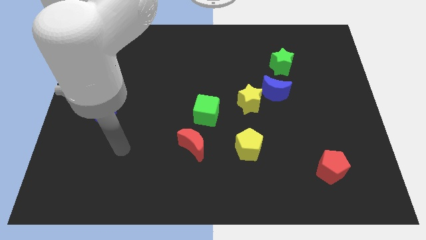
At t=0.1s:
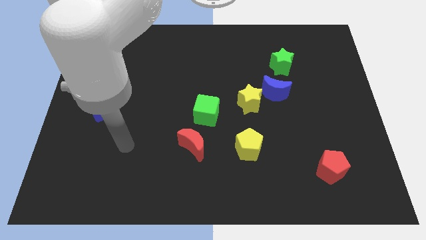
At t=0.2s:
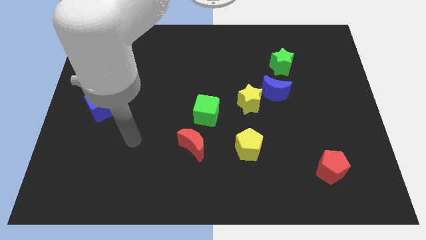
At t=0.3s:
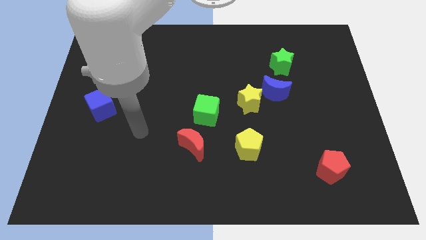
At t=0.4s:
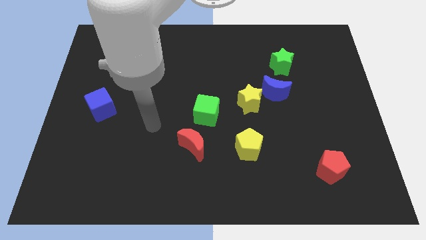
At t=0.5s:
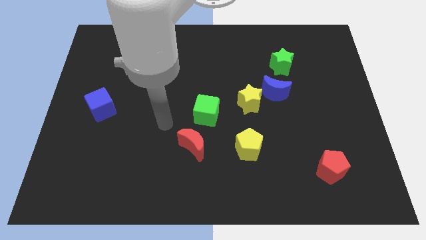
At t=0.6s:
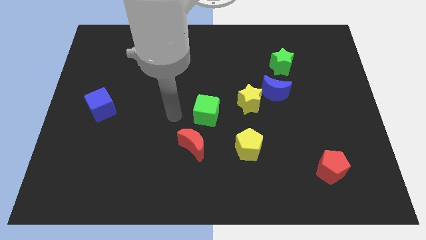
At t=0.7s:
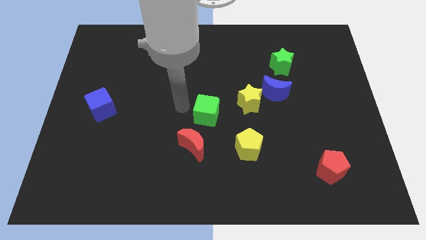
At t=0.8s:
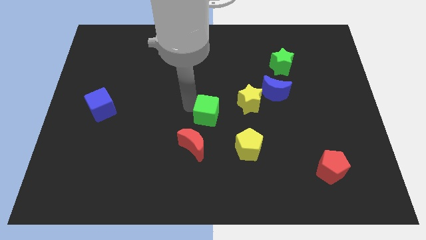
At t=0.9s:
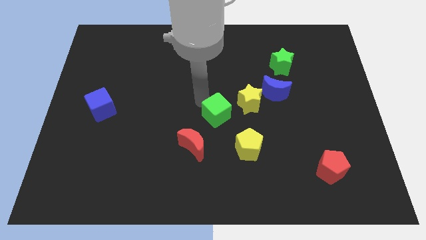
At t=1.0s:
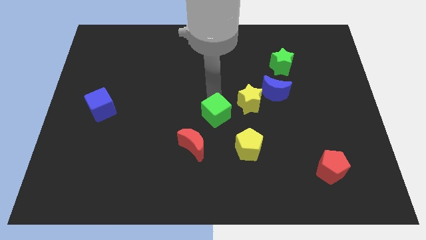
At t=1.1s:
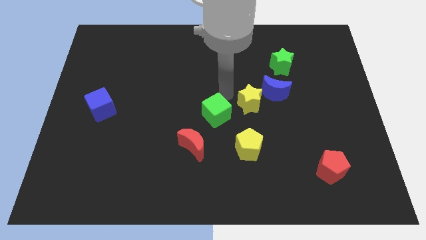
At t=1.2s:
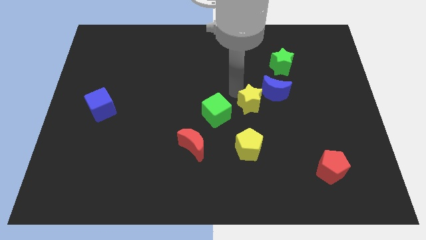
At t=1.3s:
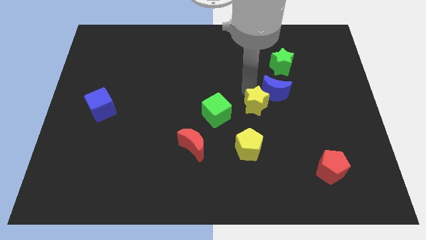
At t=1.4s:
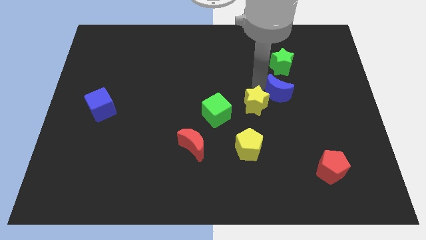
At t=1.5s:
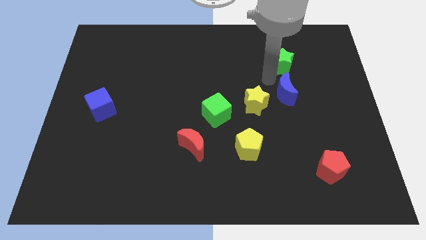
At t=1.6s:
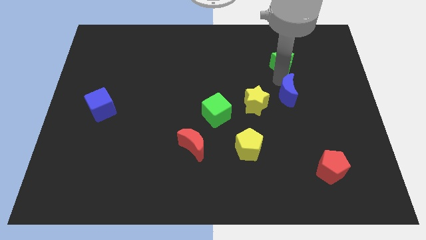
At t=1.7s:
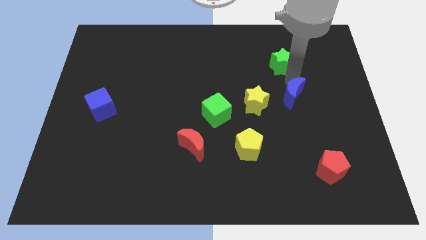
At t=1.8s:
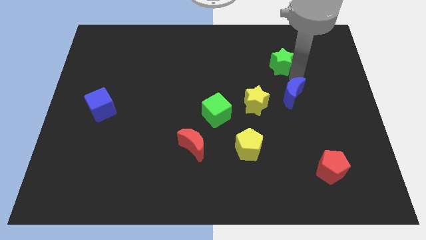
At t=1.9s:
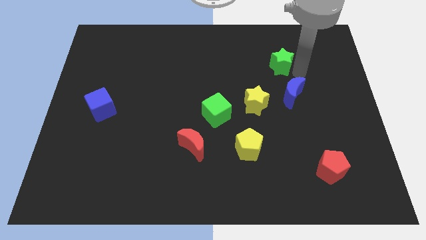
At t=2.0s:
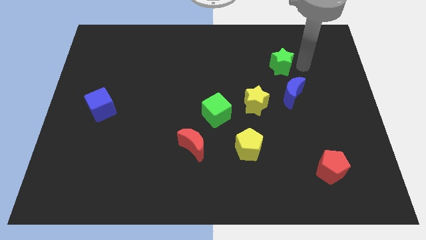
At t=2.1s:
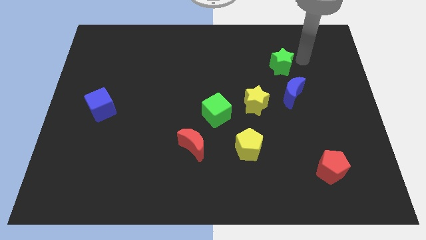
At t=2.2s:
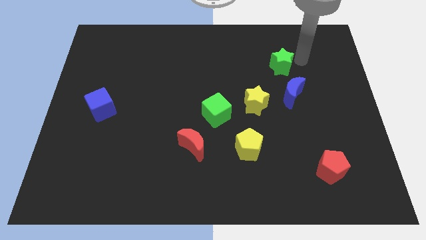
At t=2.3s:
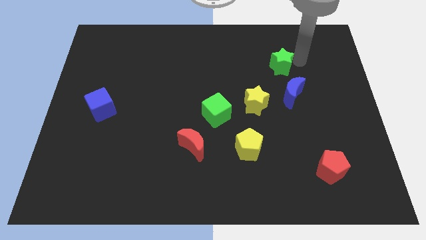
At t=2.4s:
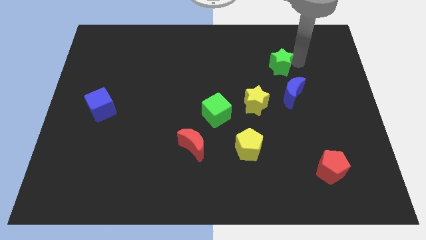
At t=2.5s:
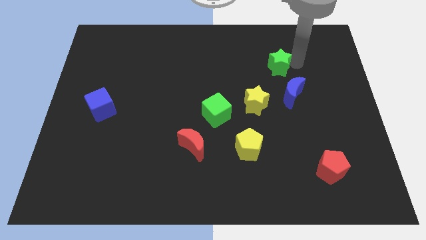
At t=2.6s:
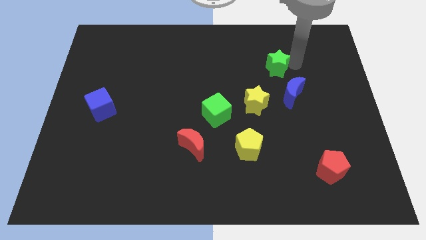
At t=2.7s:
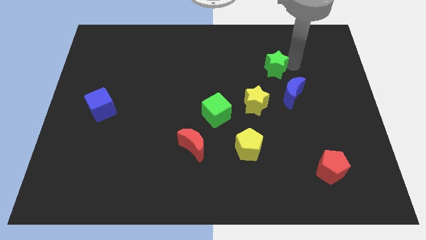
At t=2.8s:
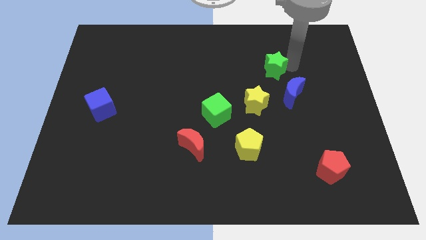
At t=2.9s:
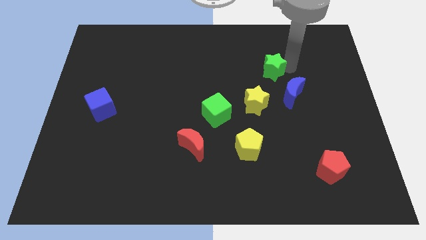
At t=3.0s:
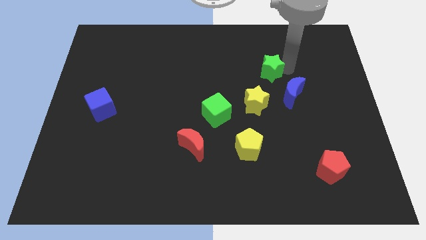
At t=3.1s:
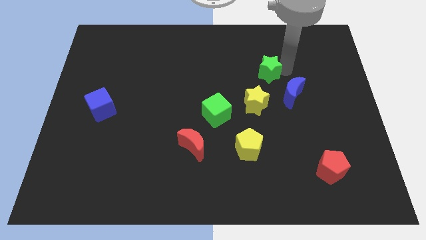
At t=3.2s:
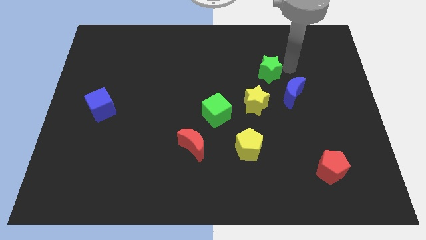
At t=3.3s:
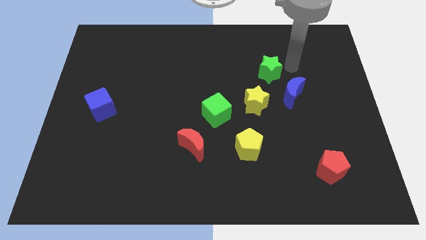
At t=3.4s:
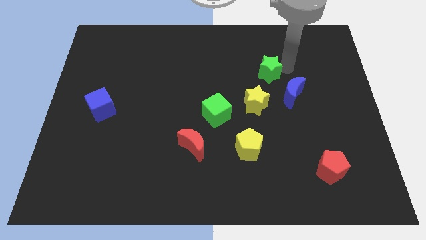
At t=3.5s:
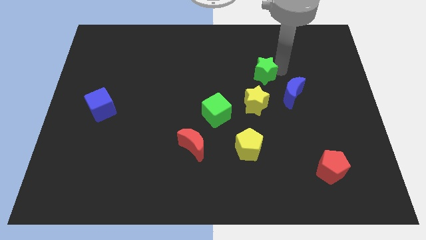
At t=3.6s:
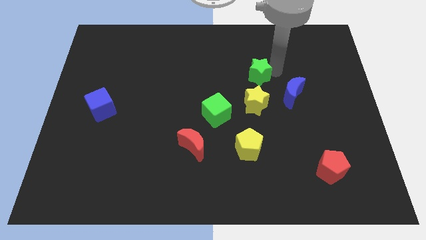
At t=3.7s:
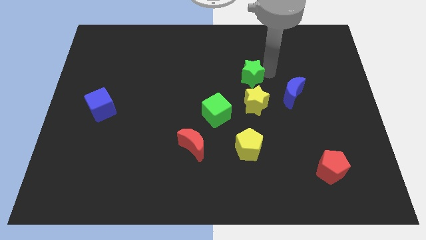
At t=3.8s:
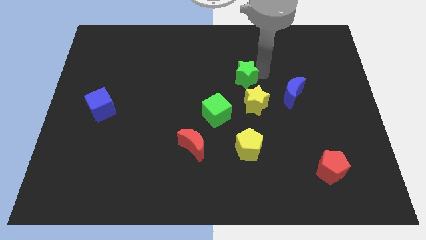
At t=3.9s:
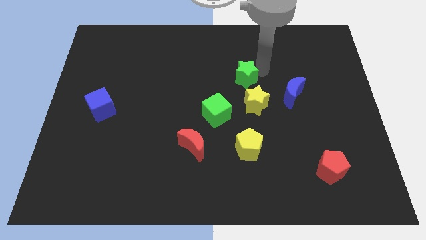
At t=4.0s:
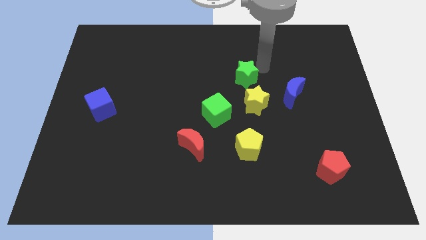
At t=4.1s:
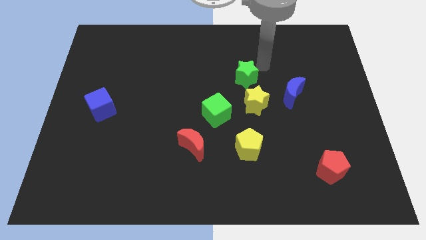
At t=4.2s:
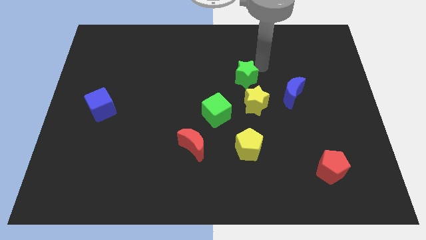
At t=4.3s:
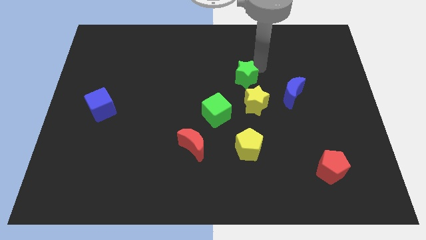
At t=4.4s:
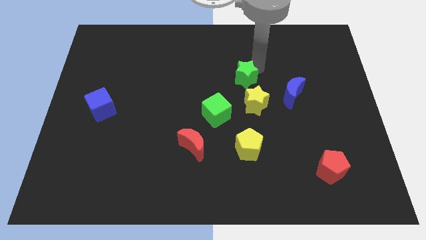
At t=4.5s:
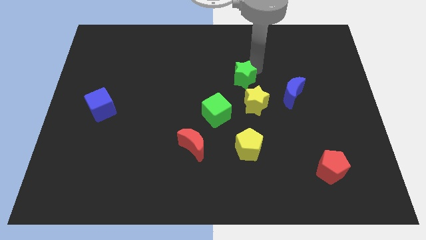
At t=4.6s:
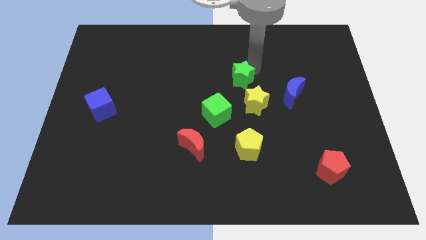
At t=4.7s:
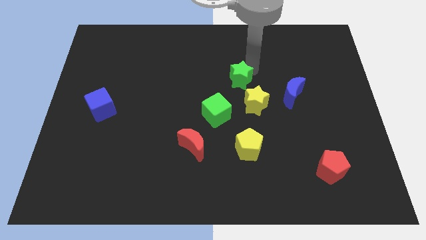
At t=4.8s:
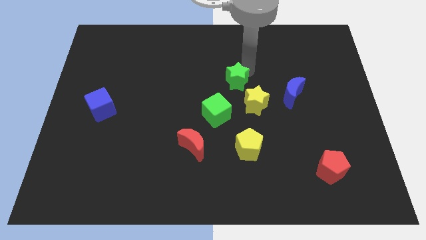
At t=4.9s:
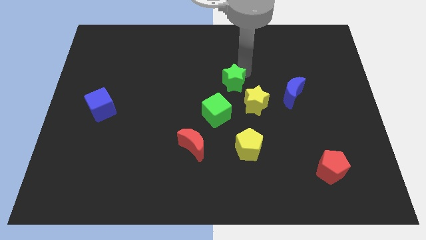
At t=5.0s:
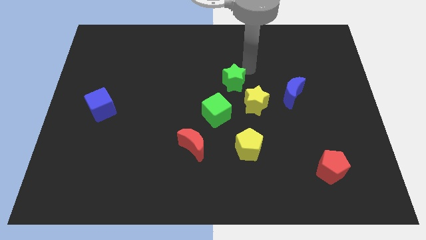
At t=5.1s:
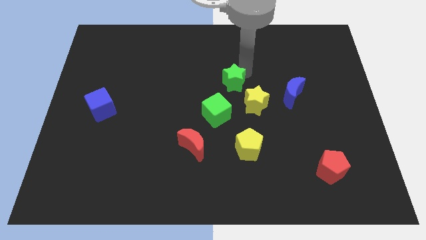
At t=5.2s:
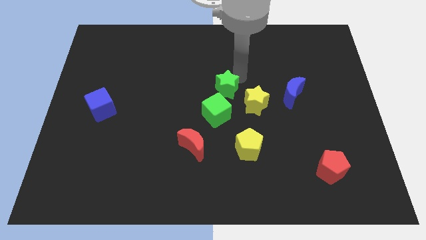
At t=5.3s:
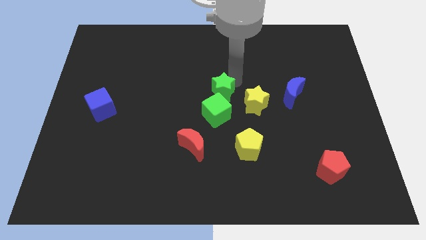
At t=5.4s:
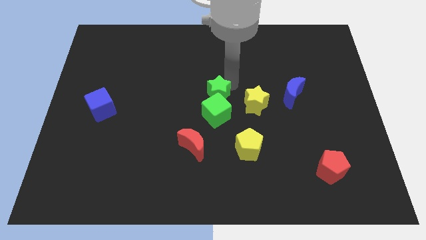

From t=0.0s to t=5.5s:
slide the green star next to the green cube

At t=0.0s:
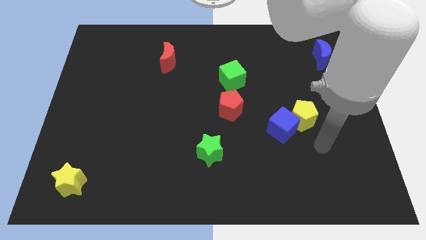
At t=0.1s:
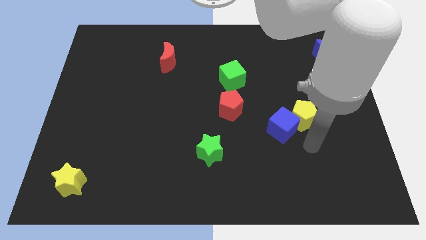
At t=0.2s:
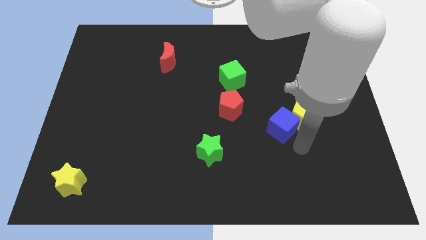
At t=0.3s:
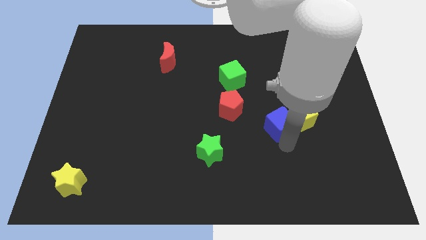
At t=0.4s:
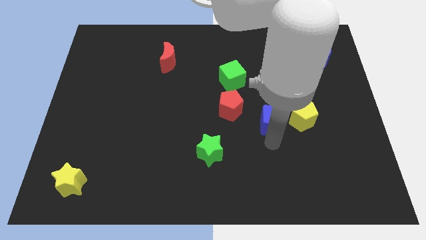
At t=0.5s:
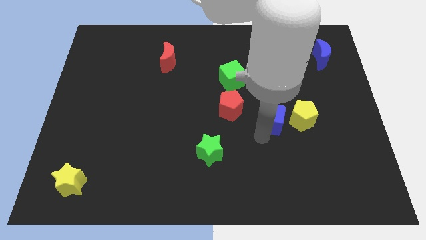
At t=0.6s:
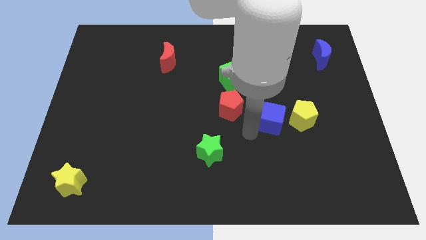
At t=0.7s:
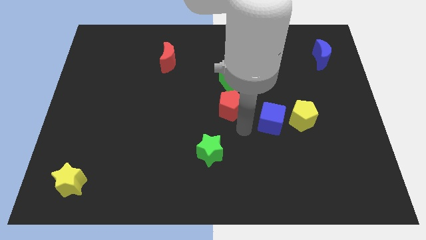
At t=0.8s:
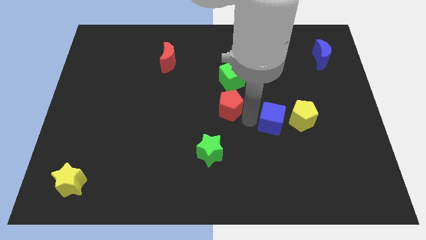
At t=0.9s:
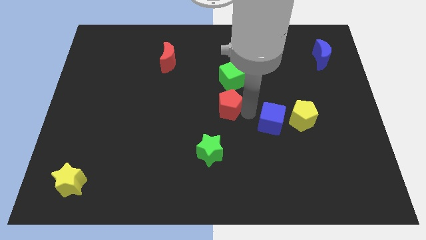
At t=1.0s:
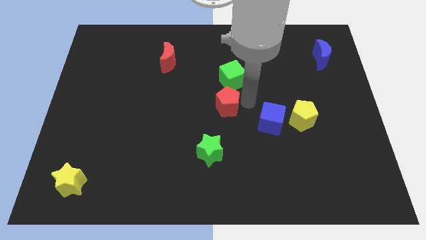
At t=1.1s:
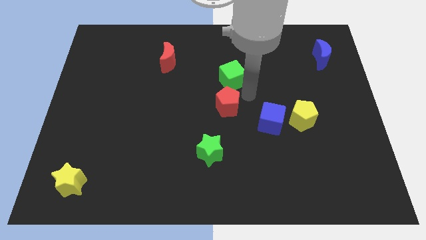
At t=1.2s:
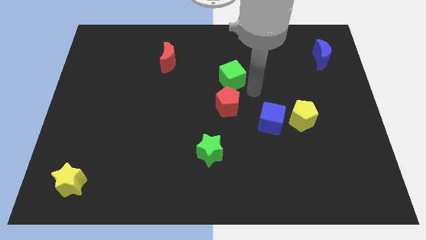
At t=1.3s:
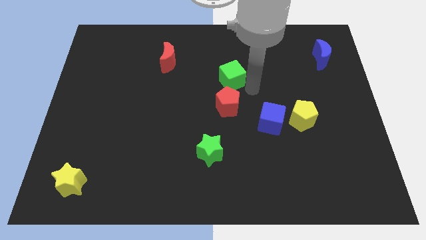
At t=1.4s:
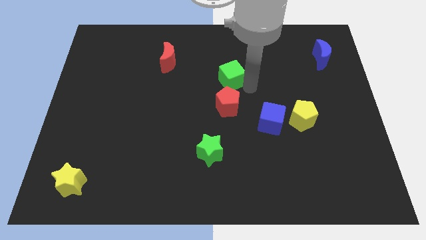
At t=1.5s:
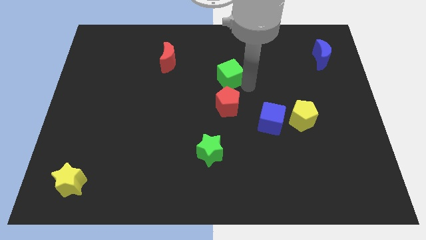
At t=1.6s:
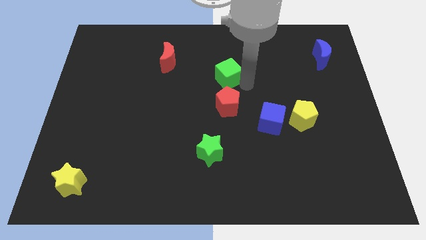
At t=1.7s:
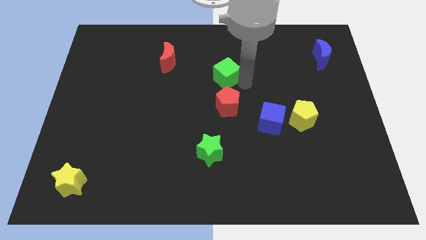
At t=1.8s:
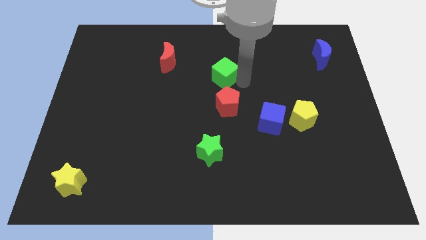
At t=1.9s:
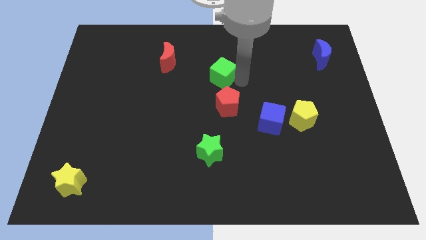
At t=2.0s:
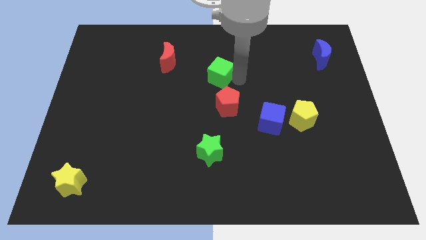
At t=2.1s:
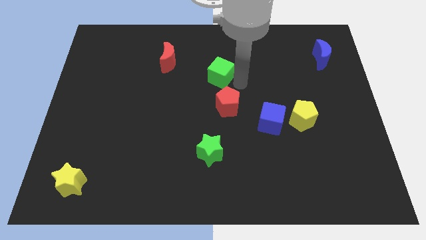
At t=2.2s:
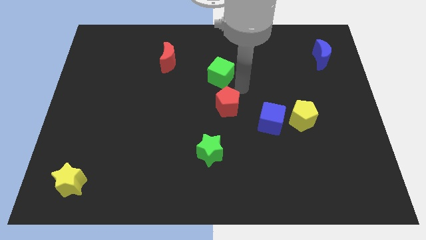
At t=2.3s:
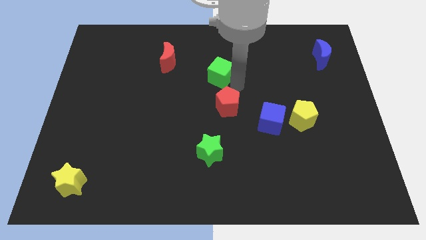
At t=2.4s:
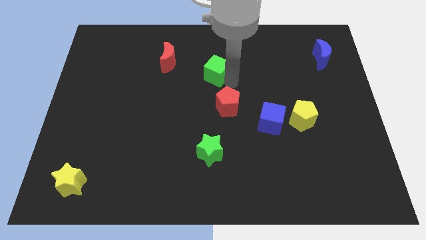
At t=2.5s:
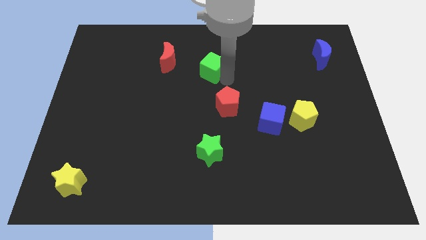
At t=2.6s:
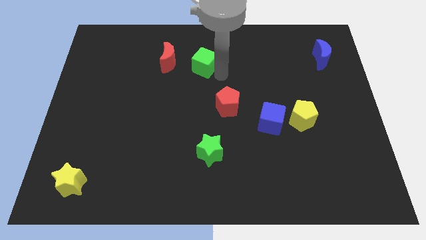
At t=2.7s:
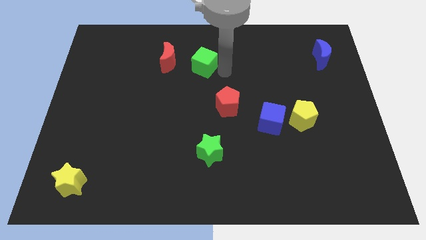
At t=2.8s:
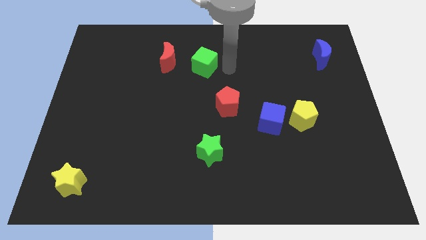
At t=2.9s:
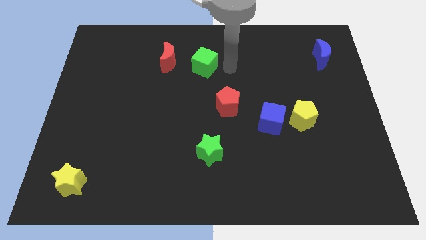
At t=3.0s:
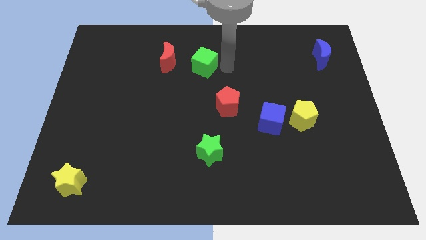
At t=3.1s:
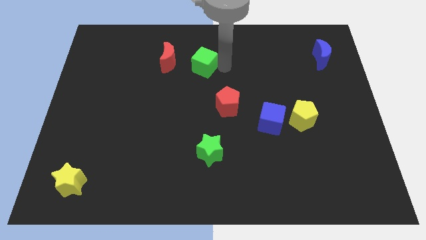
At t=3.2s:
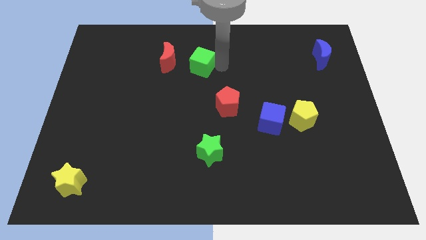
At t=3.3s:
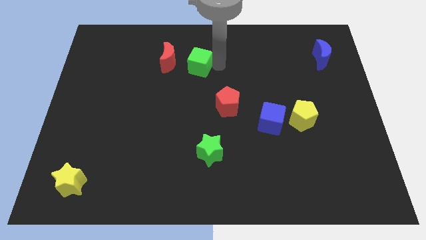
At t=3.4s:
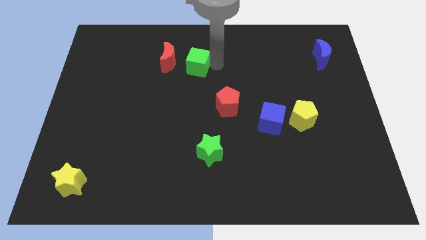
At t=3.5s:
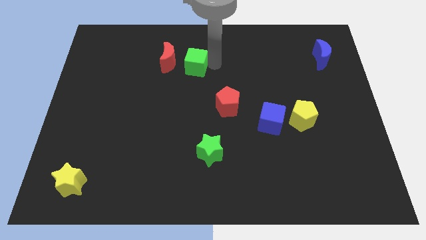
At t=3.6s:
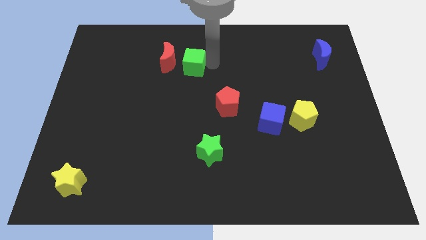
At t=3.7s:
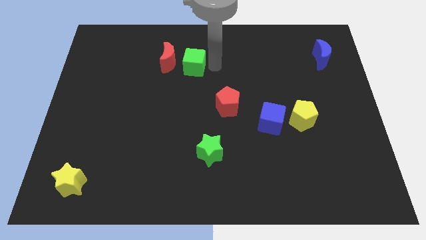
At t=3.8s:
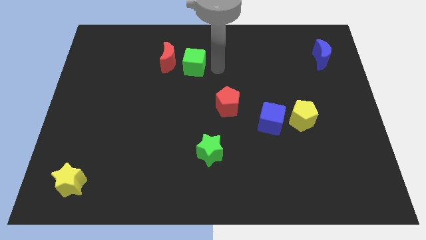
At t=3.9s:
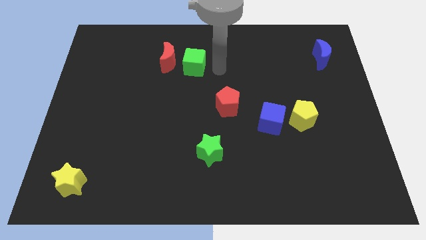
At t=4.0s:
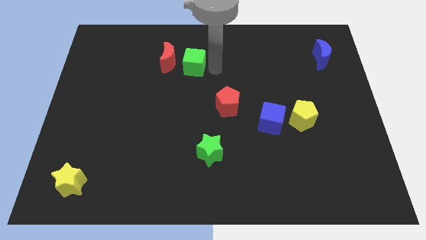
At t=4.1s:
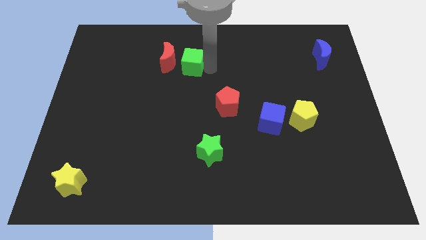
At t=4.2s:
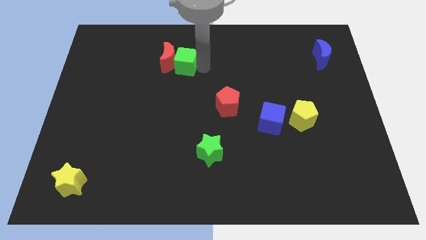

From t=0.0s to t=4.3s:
push the green cube to the red moon
